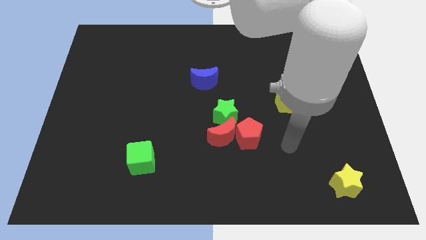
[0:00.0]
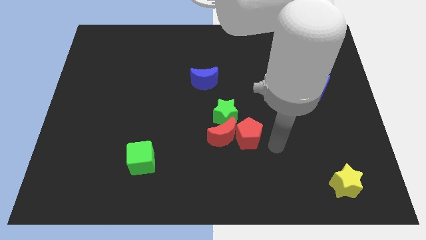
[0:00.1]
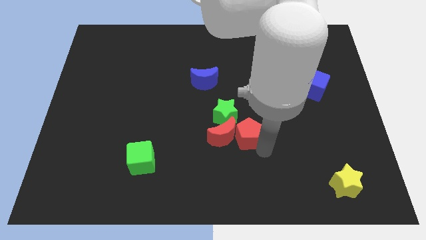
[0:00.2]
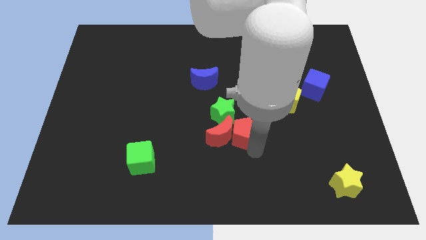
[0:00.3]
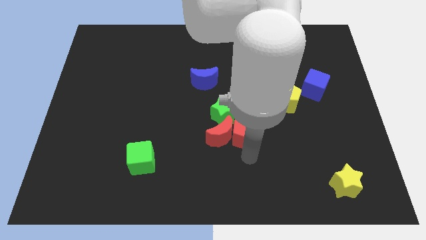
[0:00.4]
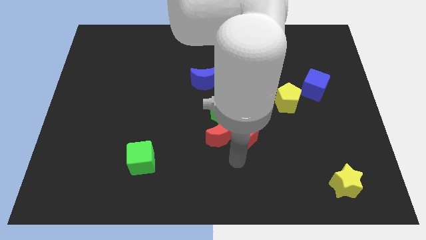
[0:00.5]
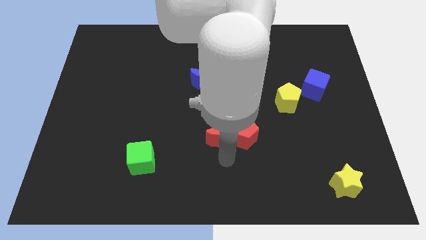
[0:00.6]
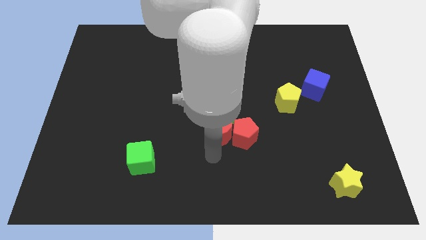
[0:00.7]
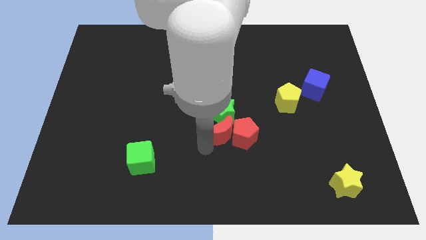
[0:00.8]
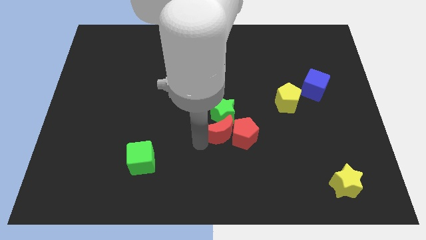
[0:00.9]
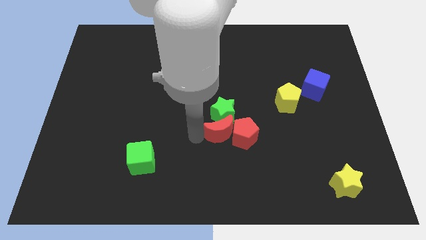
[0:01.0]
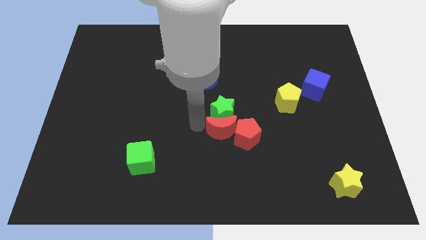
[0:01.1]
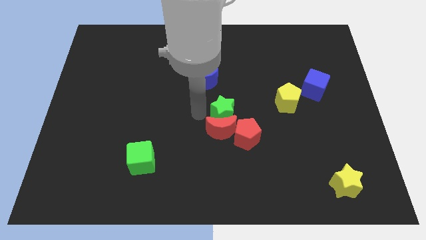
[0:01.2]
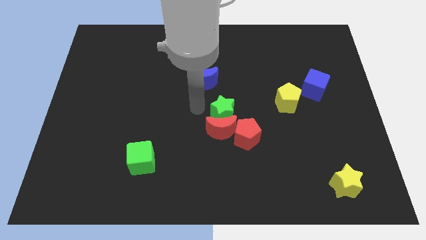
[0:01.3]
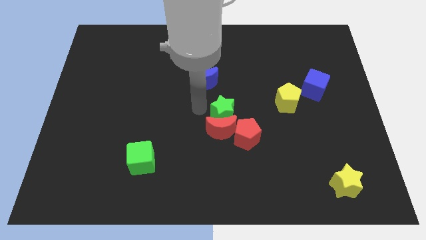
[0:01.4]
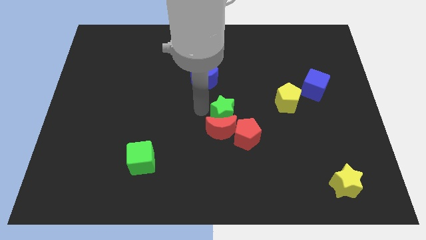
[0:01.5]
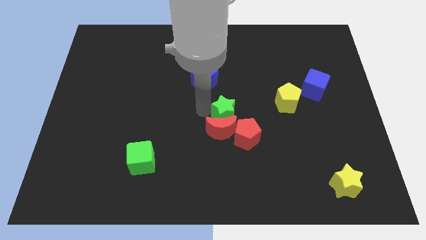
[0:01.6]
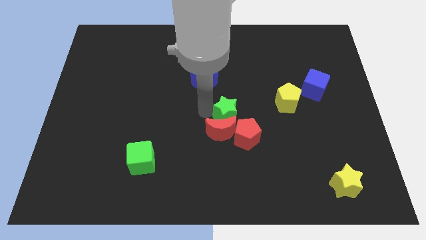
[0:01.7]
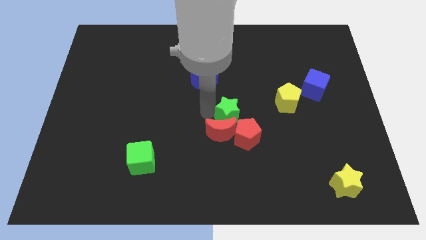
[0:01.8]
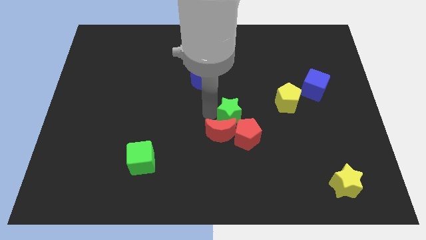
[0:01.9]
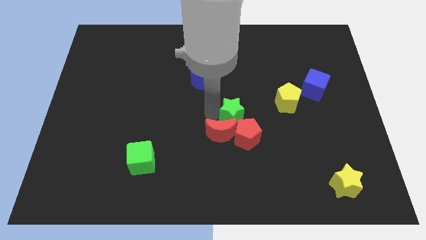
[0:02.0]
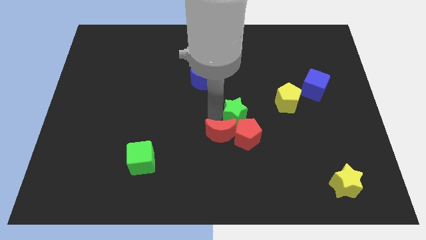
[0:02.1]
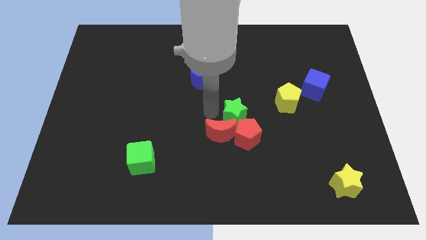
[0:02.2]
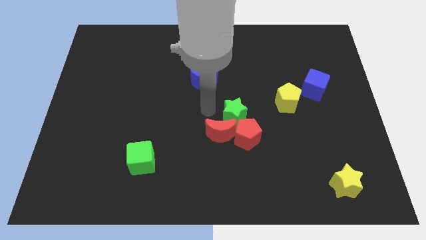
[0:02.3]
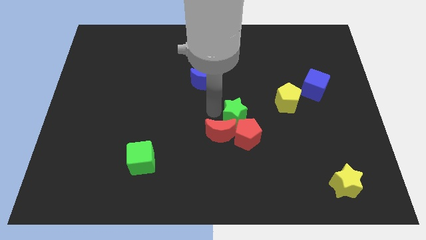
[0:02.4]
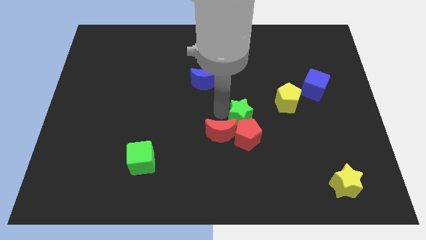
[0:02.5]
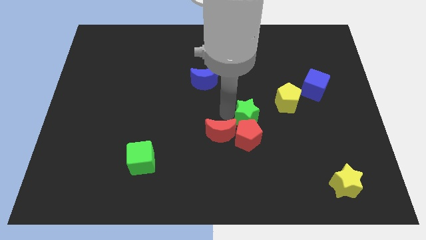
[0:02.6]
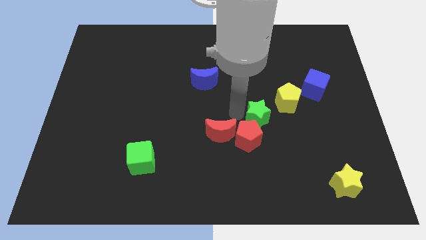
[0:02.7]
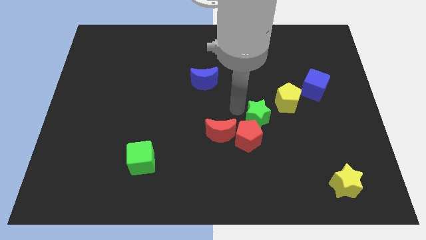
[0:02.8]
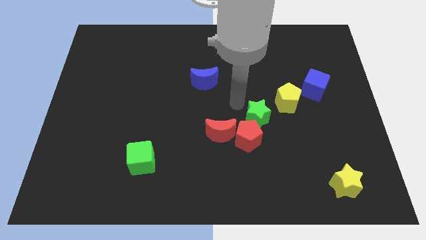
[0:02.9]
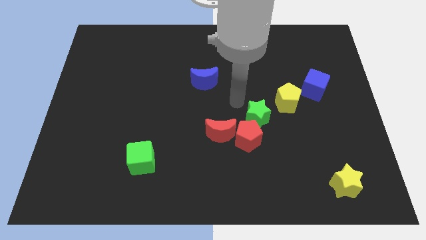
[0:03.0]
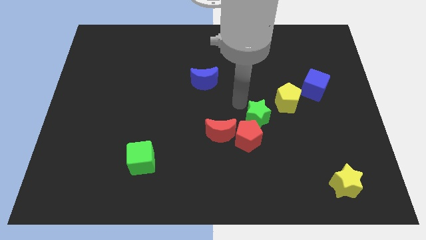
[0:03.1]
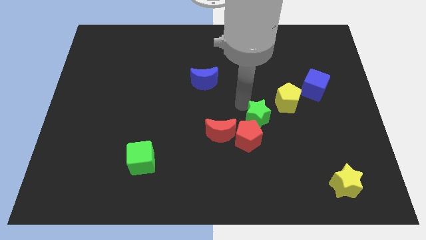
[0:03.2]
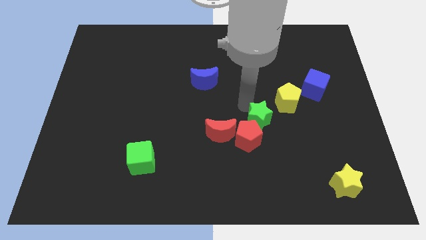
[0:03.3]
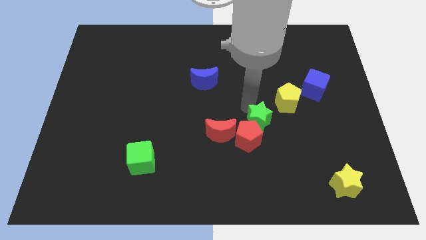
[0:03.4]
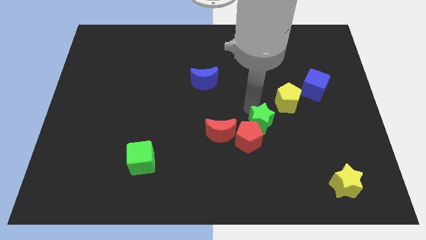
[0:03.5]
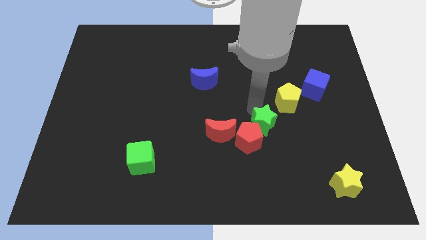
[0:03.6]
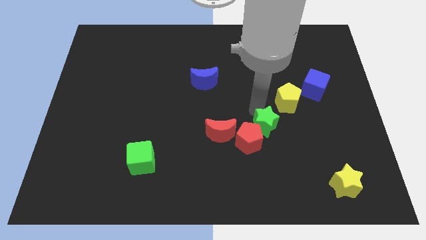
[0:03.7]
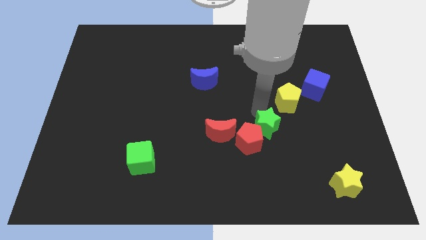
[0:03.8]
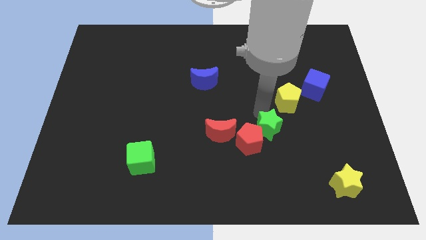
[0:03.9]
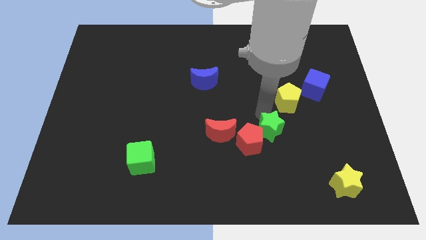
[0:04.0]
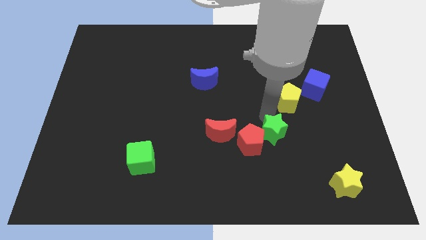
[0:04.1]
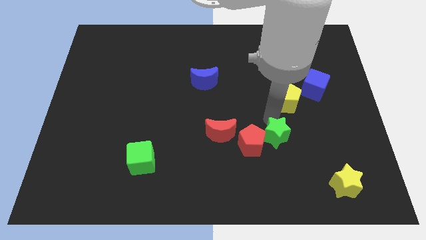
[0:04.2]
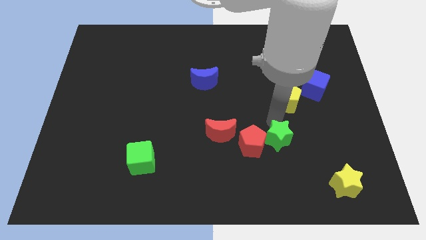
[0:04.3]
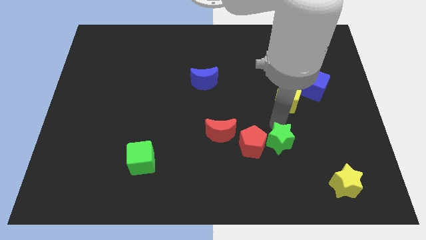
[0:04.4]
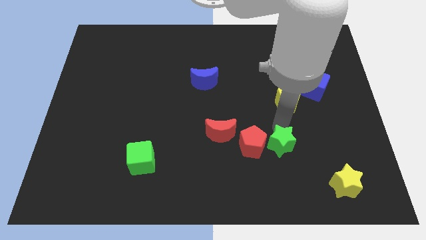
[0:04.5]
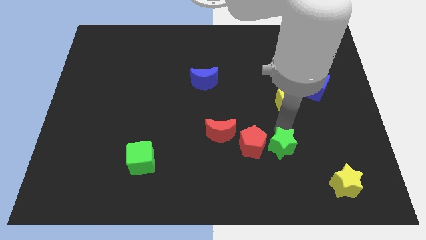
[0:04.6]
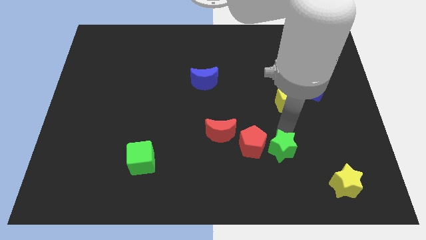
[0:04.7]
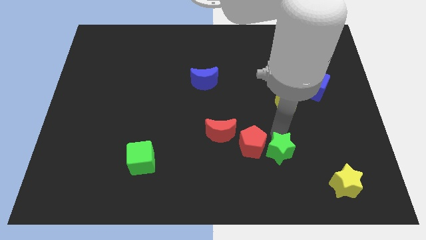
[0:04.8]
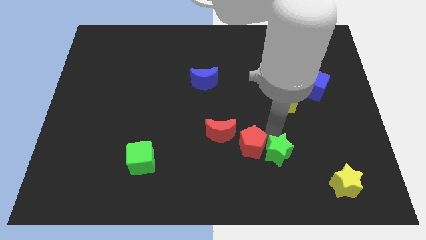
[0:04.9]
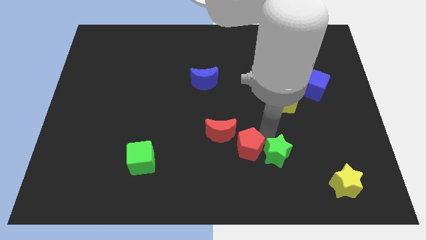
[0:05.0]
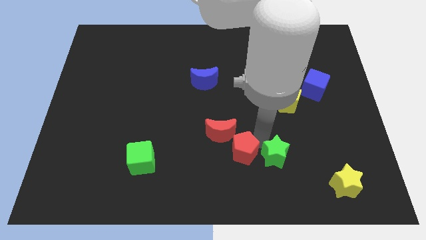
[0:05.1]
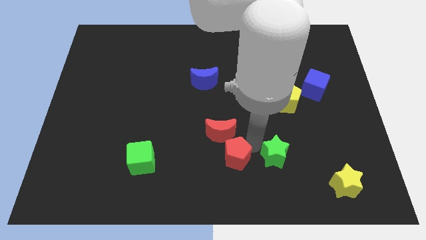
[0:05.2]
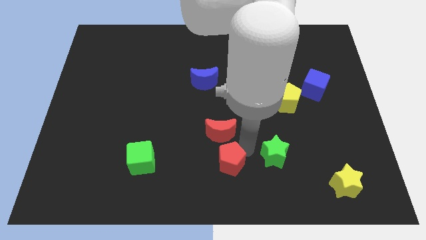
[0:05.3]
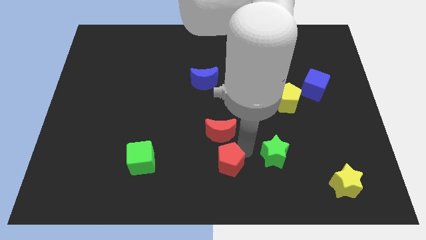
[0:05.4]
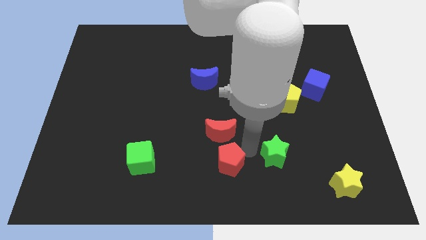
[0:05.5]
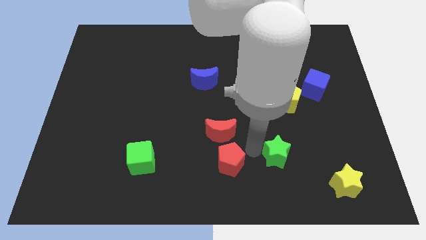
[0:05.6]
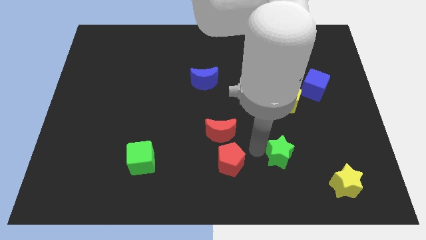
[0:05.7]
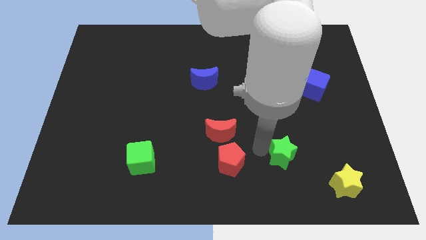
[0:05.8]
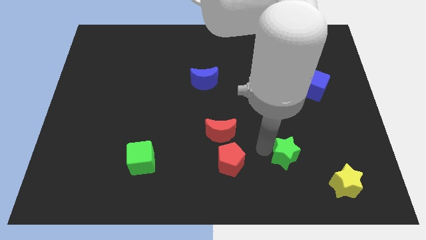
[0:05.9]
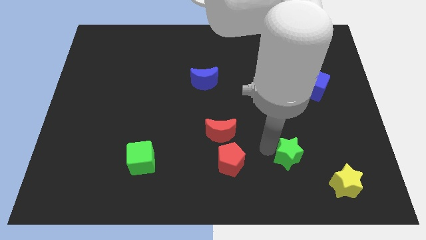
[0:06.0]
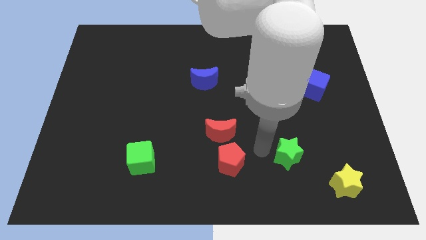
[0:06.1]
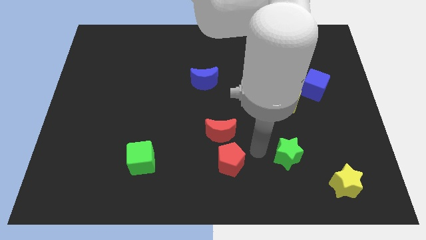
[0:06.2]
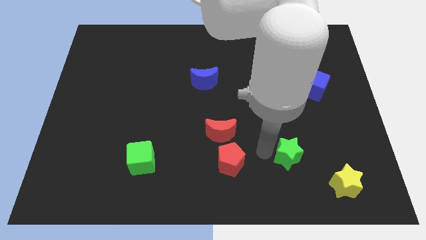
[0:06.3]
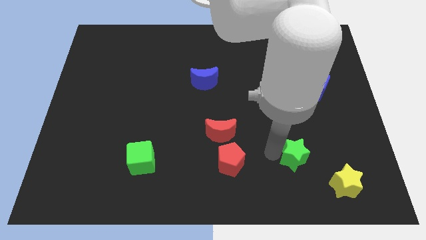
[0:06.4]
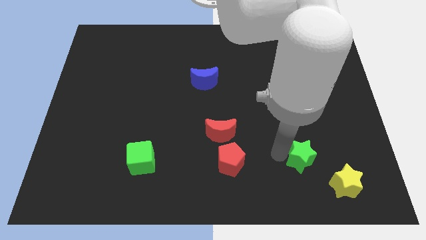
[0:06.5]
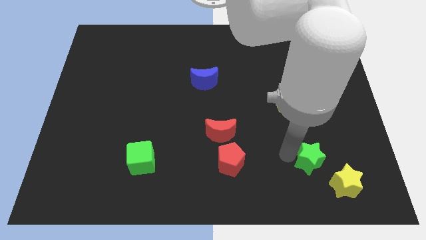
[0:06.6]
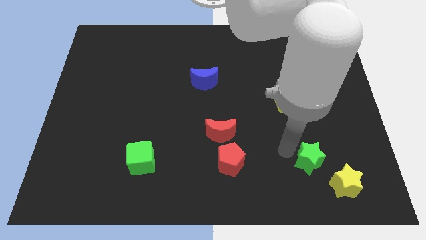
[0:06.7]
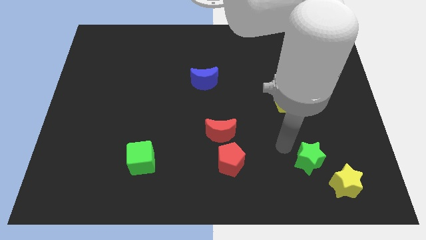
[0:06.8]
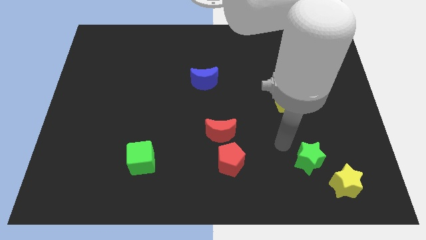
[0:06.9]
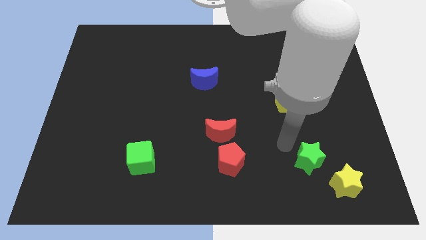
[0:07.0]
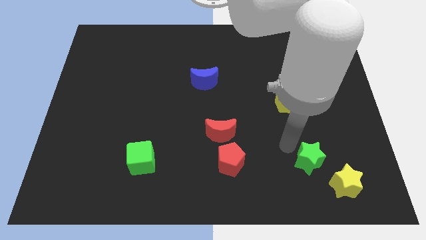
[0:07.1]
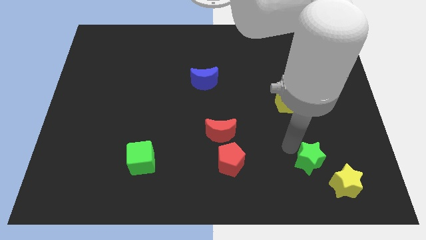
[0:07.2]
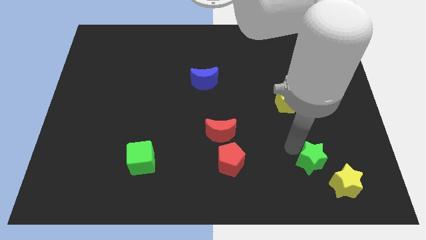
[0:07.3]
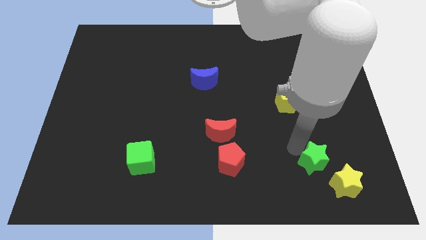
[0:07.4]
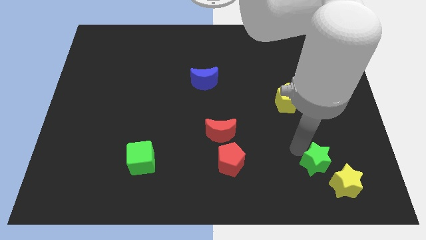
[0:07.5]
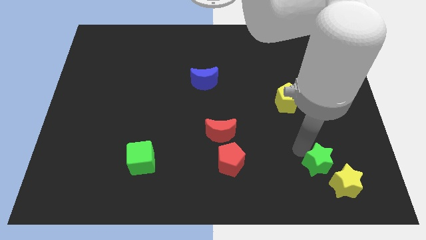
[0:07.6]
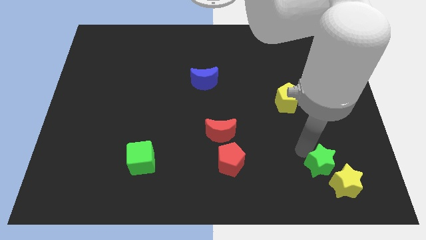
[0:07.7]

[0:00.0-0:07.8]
put the green star close to the yellow star
